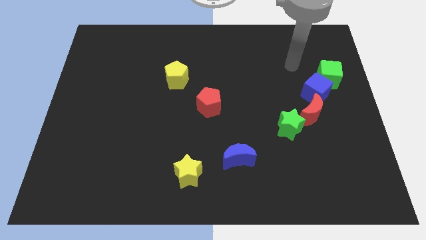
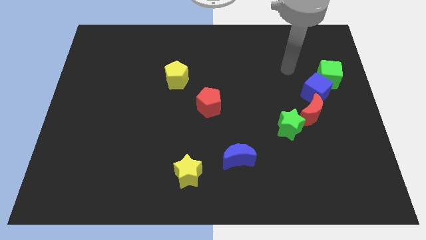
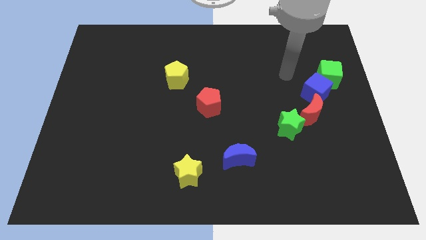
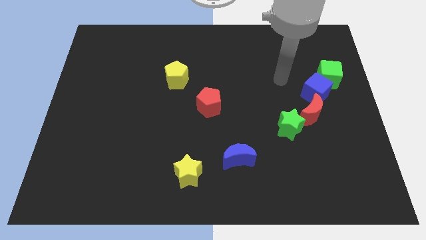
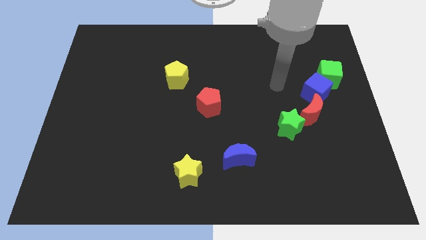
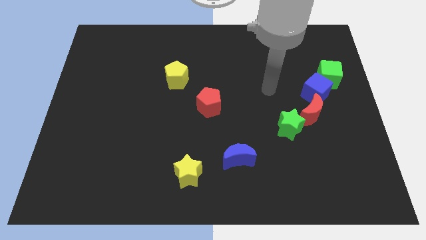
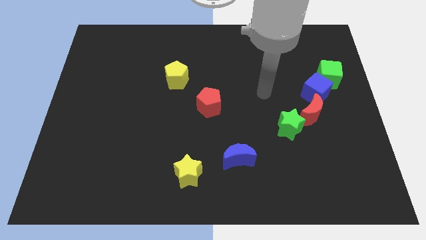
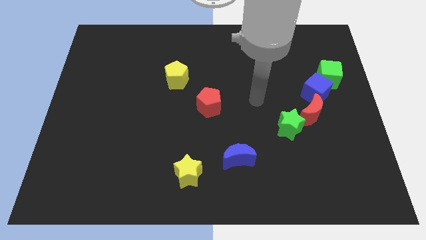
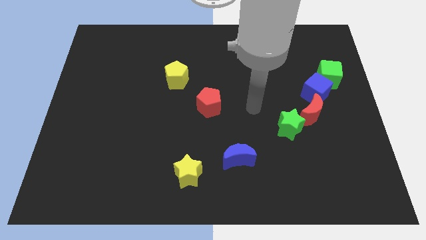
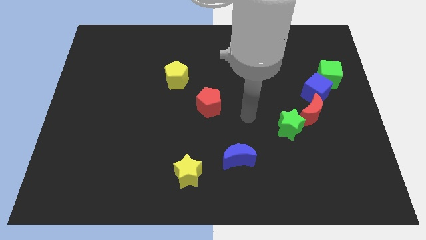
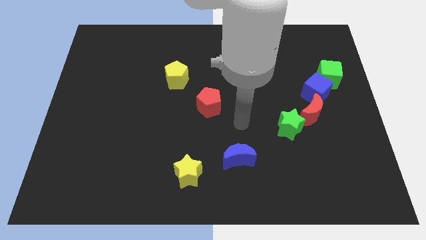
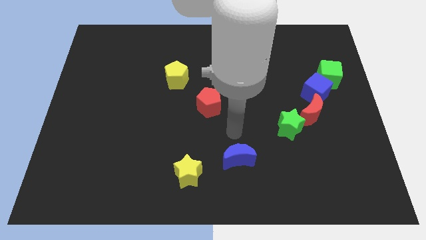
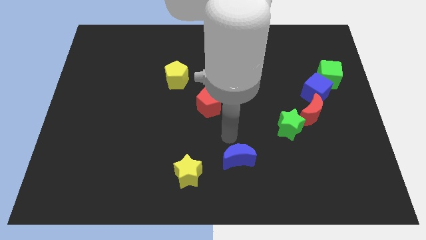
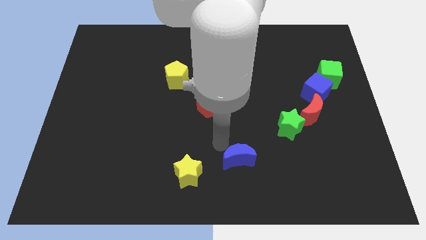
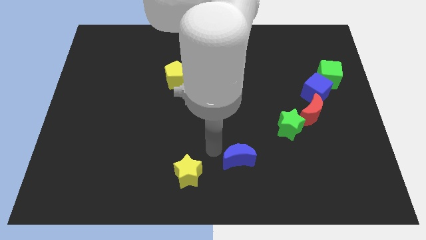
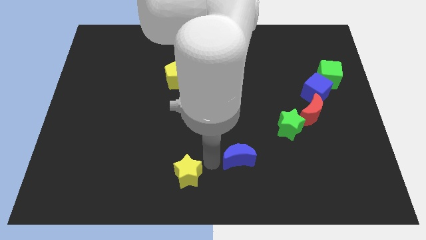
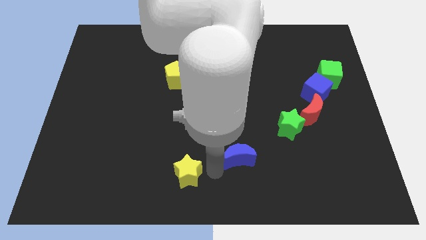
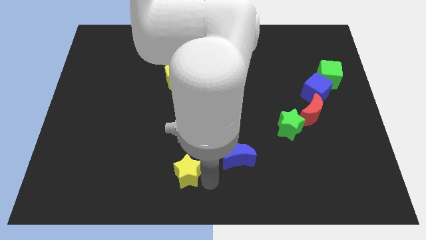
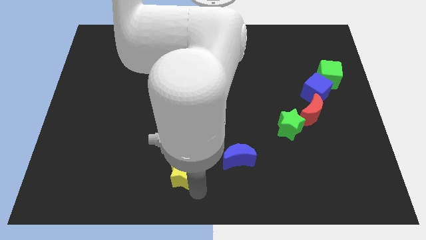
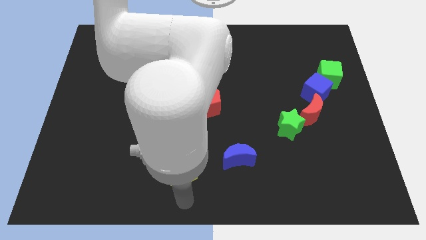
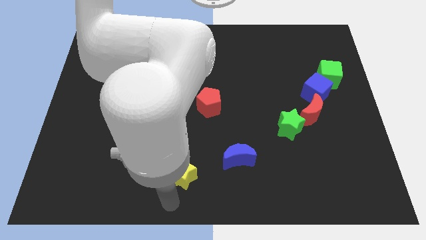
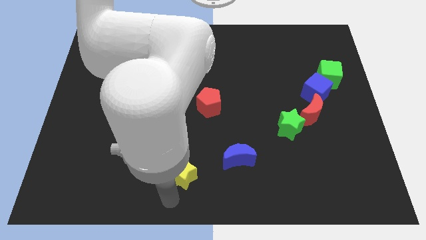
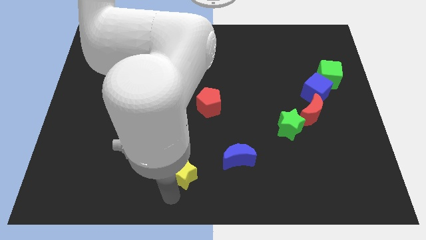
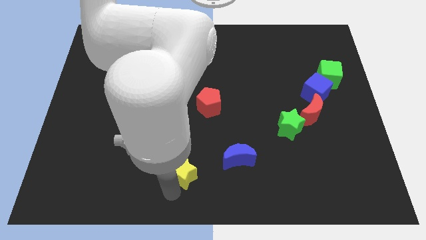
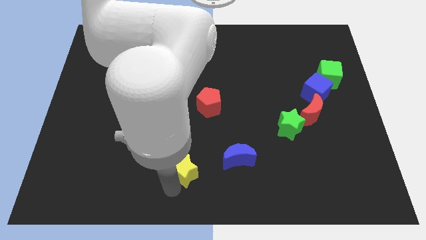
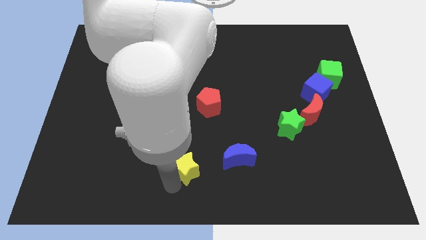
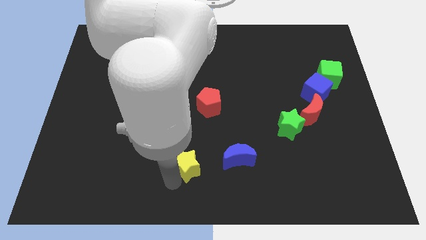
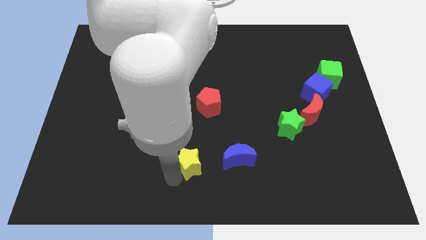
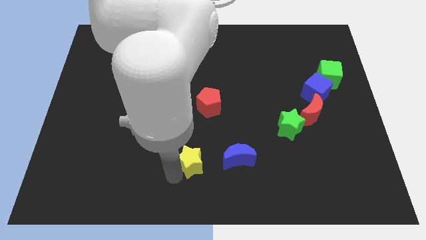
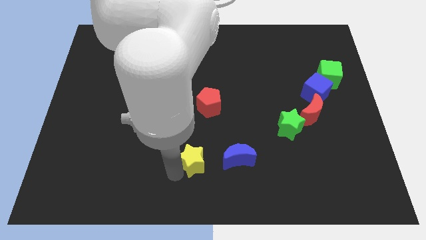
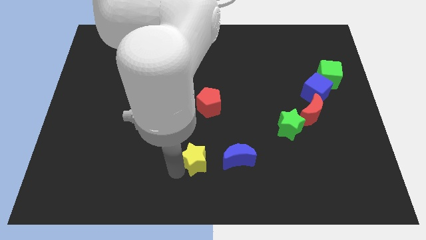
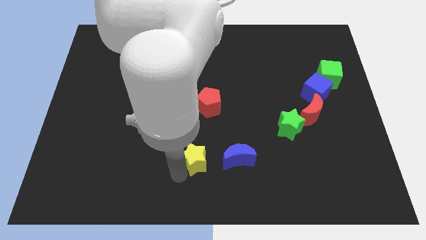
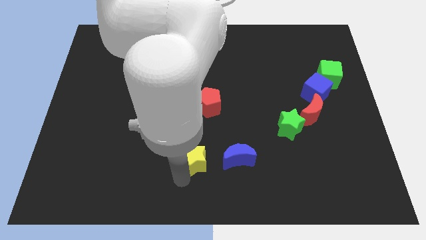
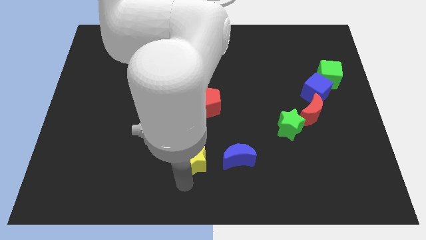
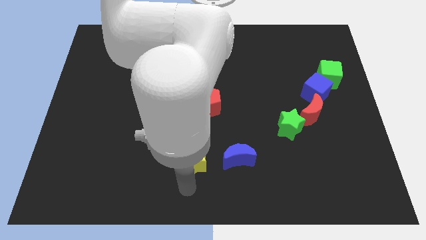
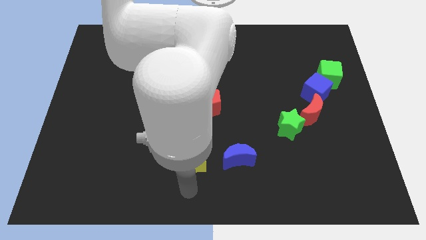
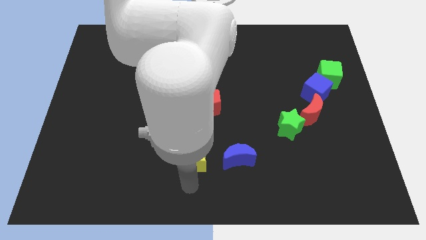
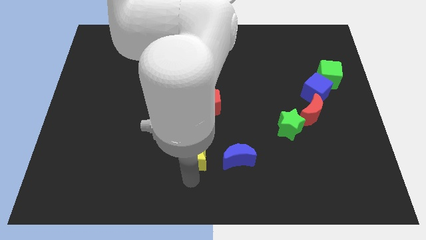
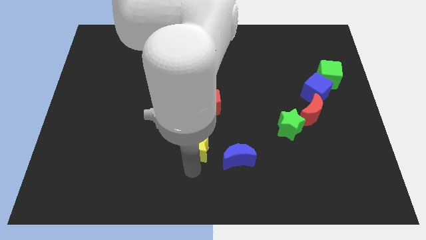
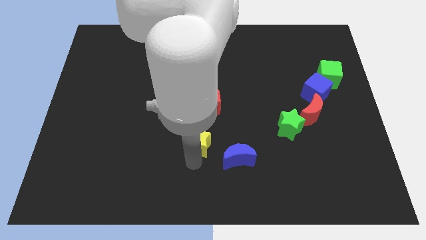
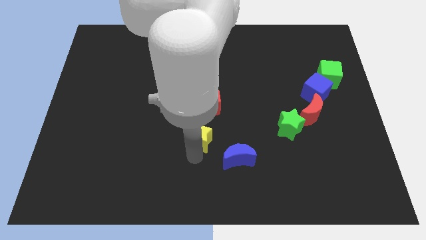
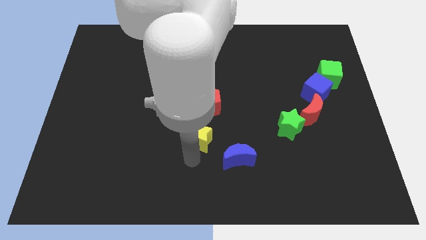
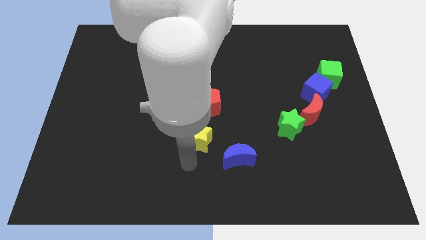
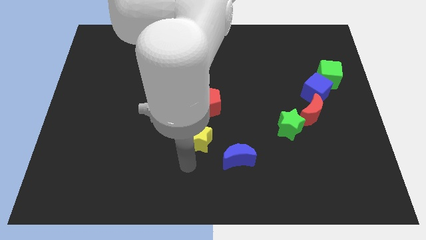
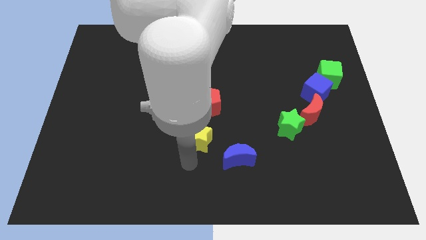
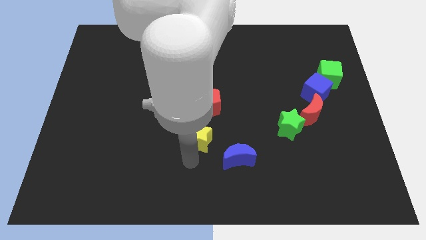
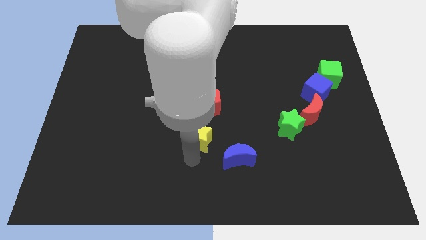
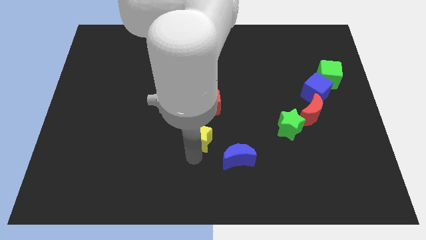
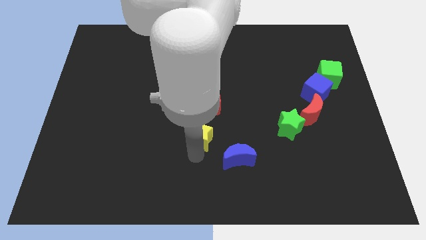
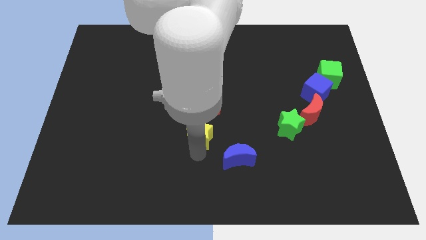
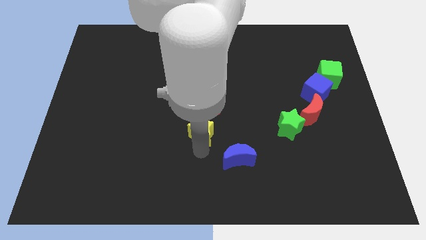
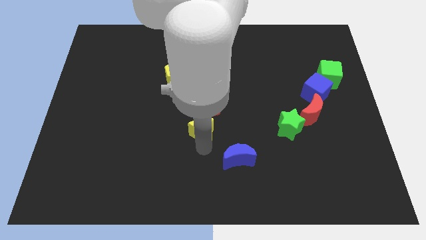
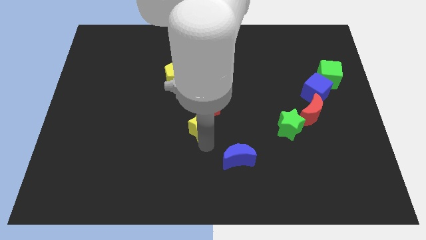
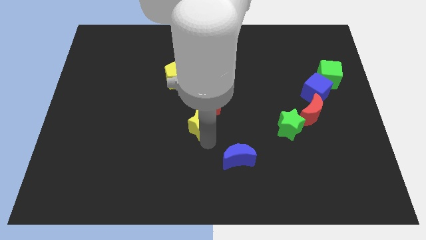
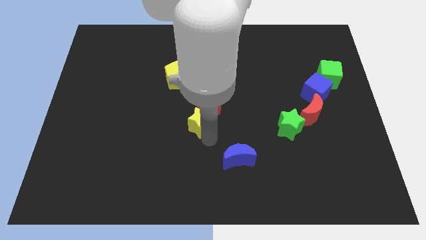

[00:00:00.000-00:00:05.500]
push the yellow star next to the red pentagon

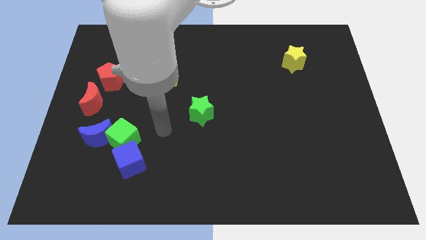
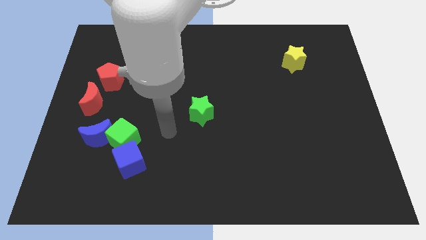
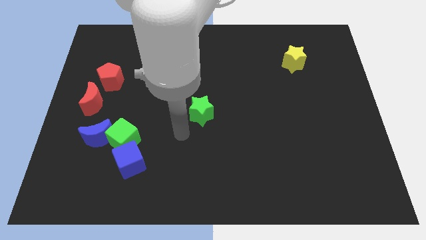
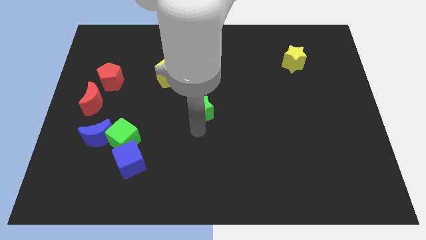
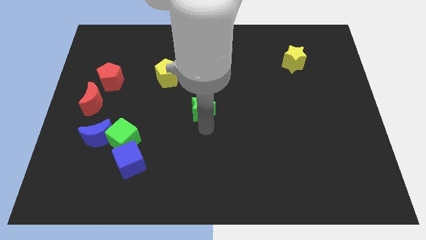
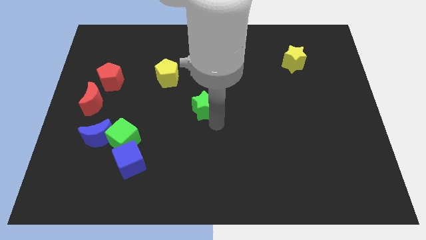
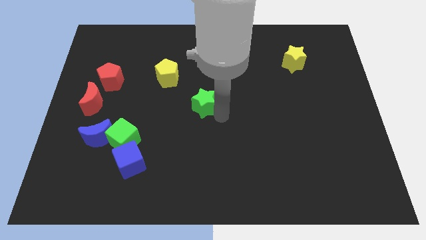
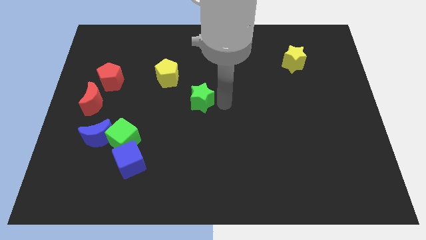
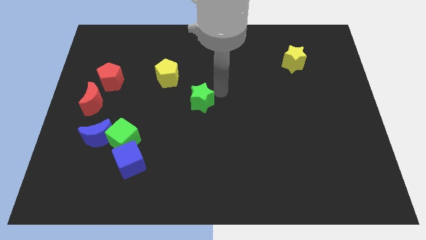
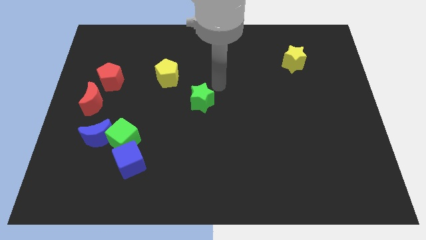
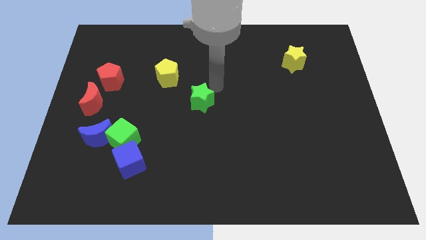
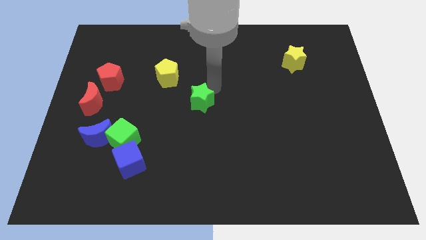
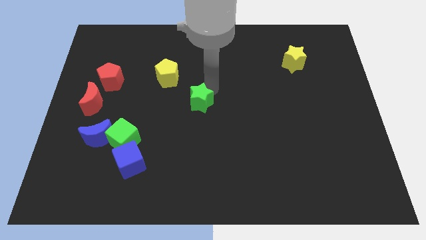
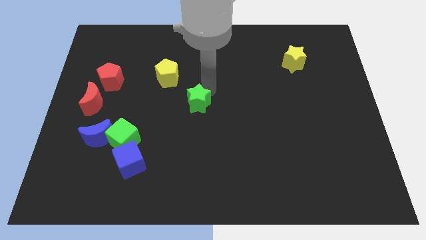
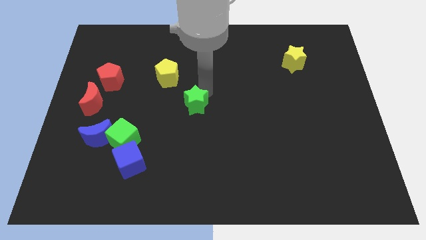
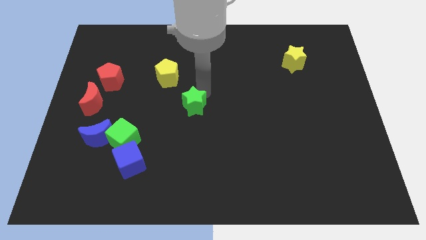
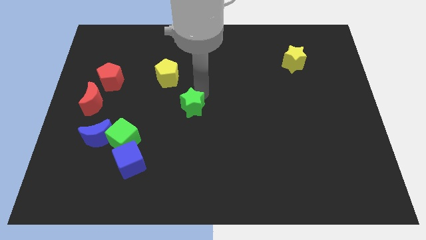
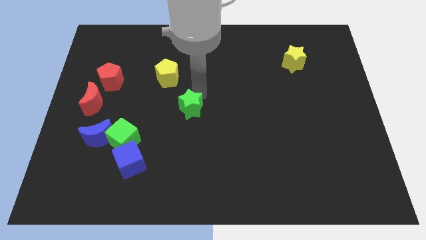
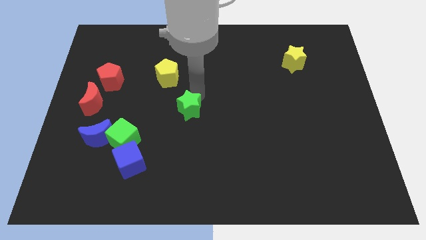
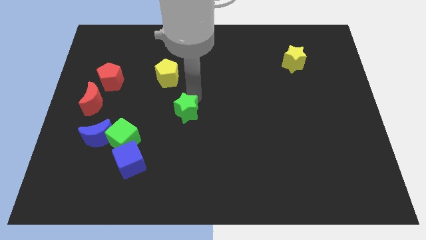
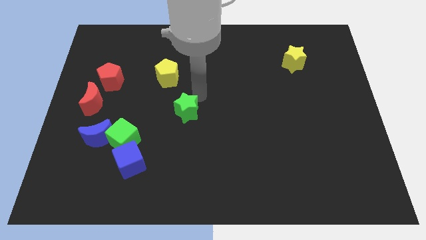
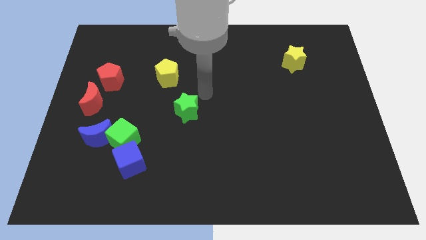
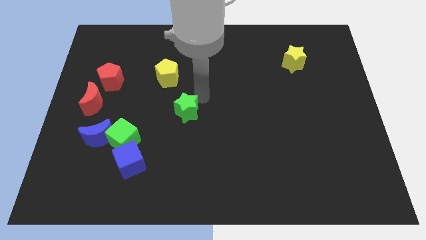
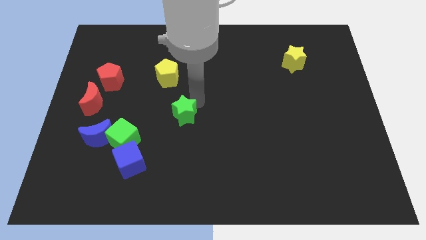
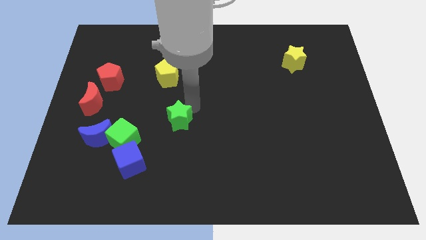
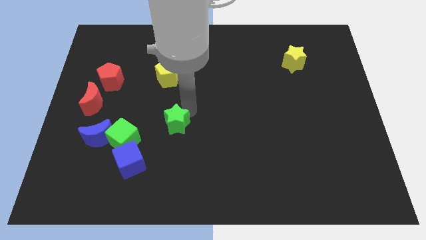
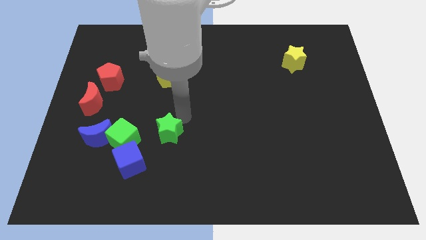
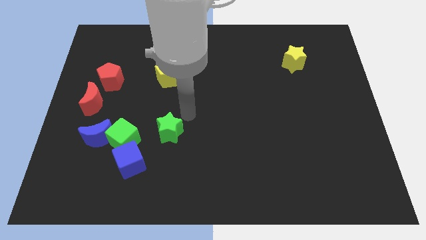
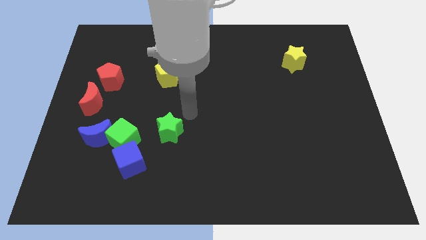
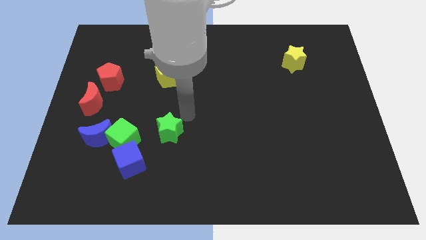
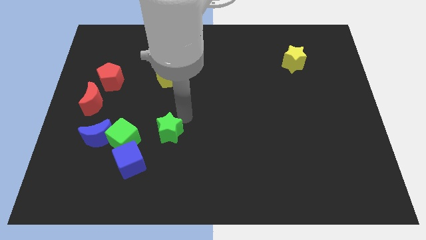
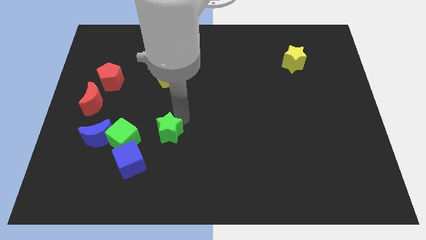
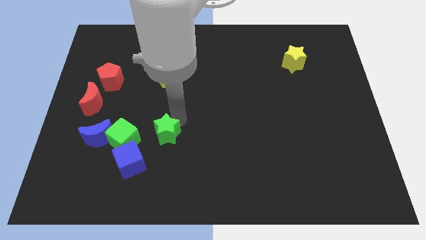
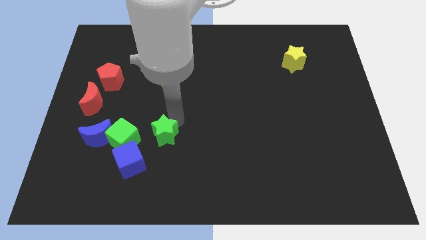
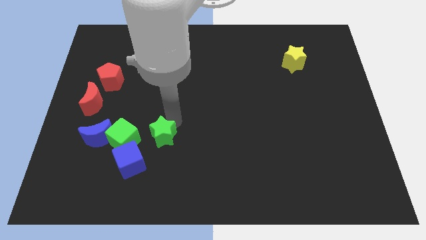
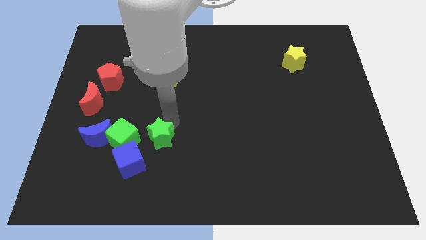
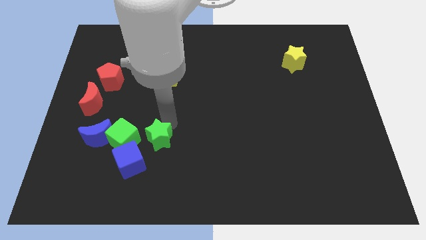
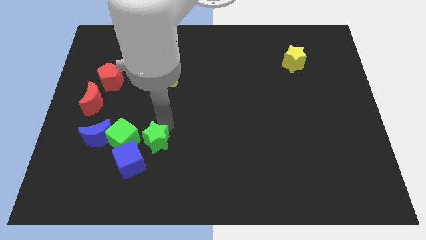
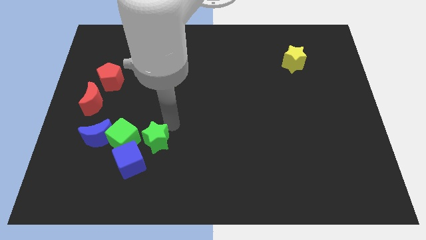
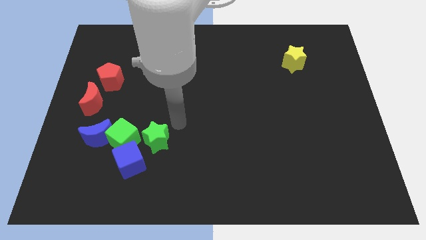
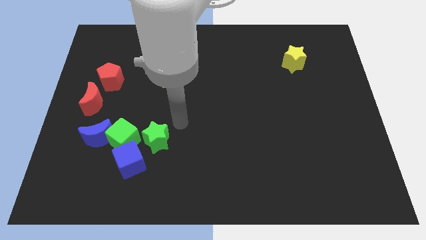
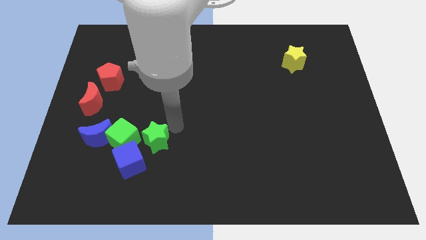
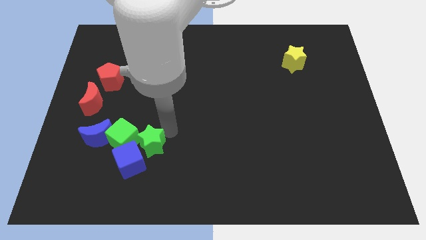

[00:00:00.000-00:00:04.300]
push the green star to the blue cube
